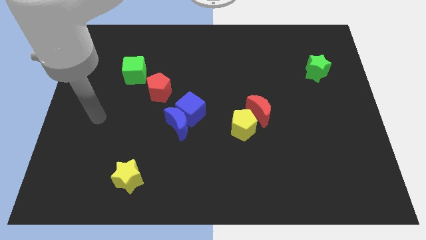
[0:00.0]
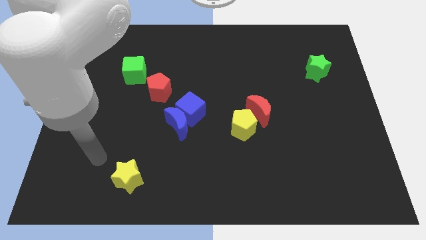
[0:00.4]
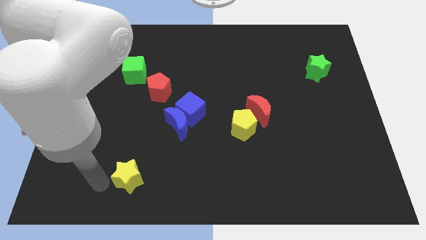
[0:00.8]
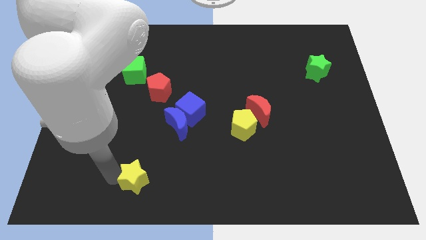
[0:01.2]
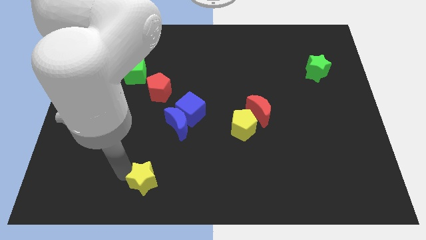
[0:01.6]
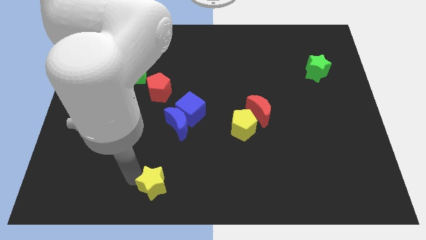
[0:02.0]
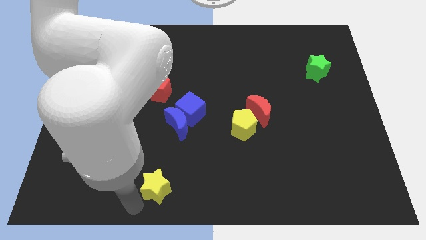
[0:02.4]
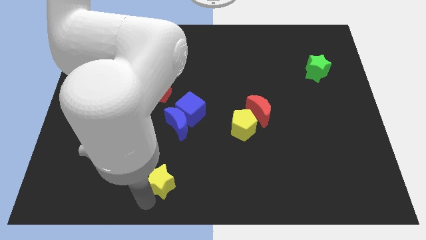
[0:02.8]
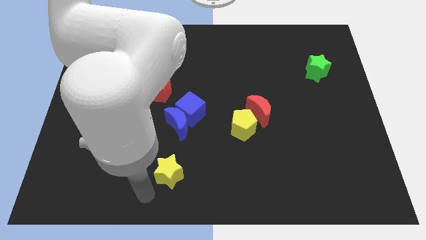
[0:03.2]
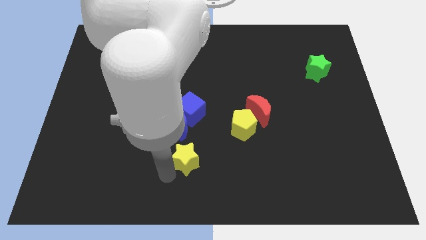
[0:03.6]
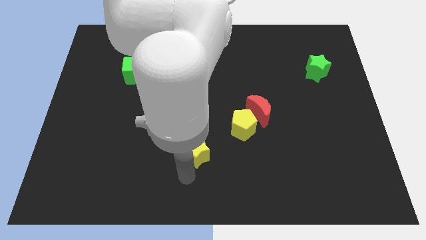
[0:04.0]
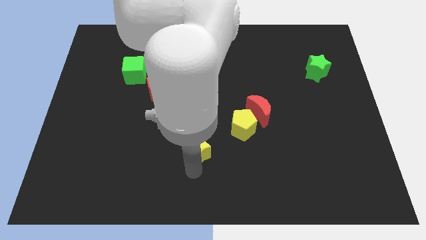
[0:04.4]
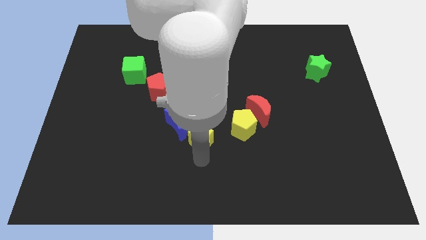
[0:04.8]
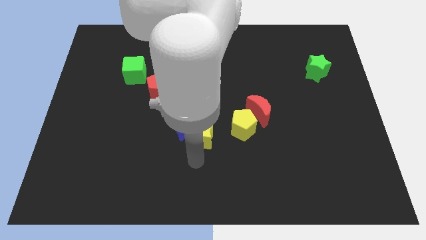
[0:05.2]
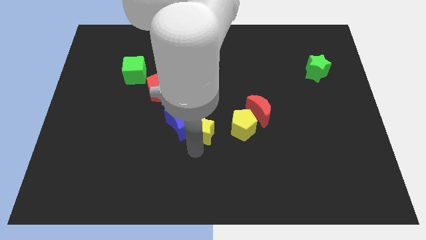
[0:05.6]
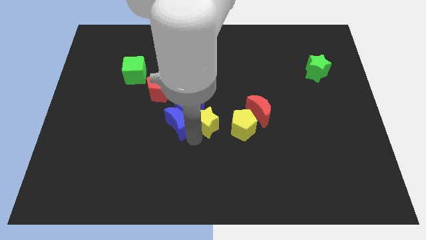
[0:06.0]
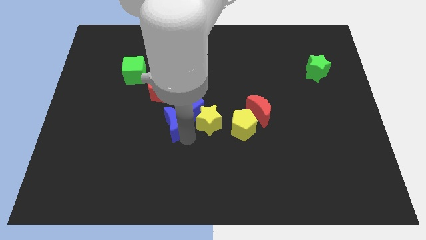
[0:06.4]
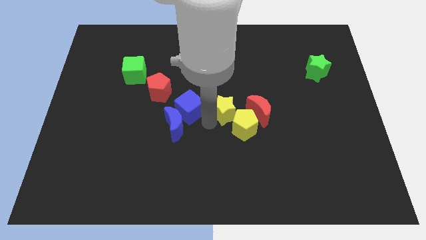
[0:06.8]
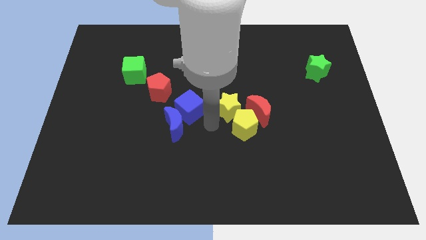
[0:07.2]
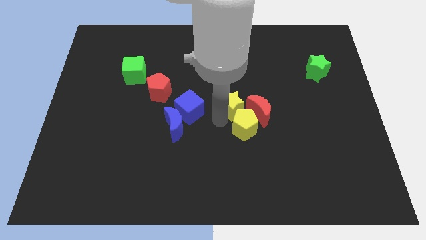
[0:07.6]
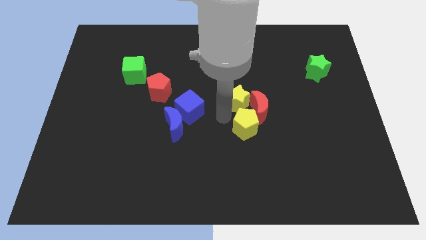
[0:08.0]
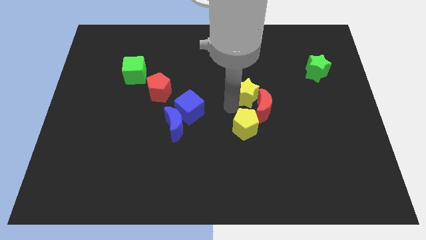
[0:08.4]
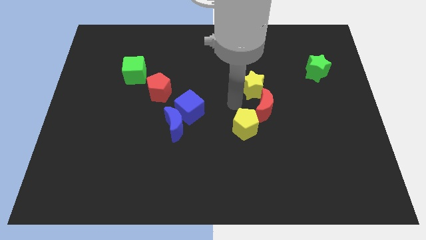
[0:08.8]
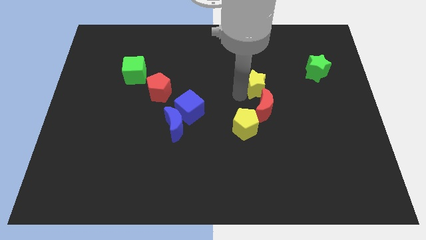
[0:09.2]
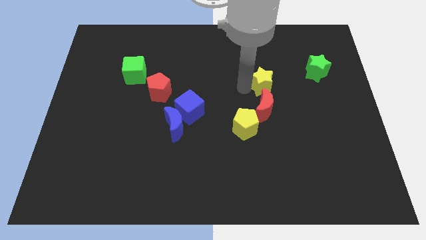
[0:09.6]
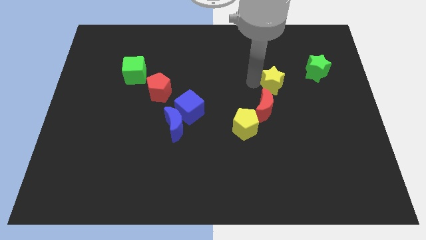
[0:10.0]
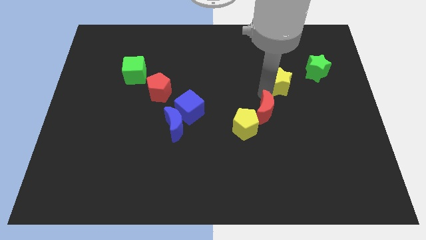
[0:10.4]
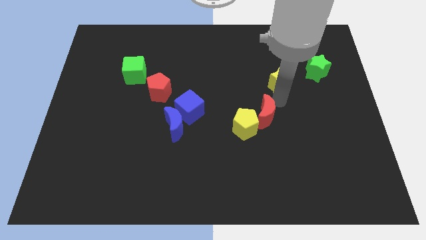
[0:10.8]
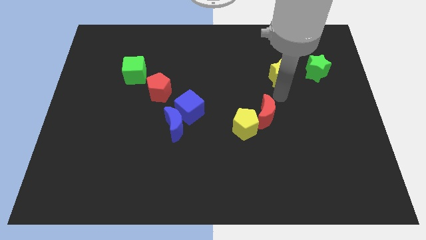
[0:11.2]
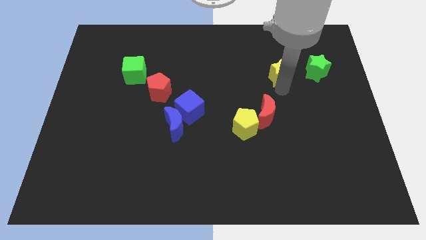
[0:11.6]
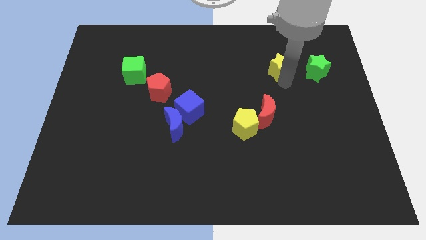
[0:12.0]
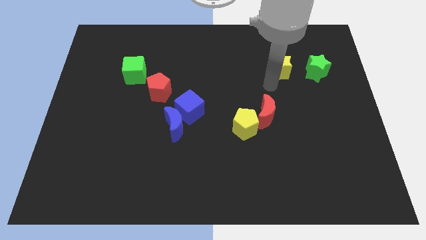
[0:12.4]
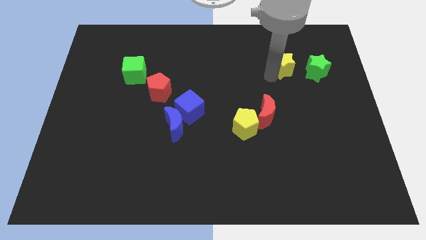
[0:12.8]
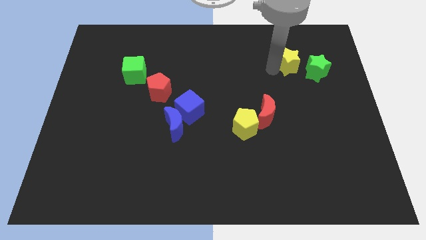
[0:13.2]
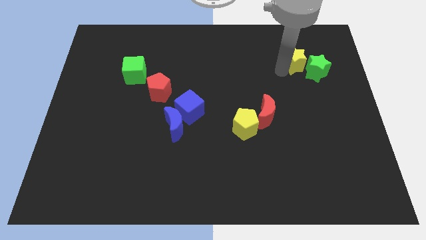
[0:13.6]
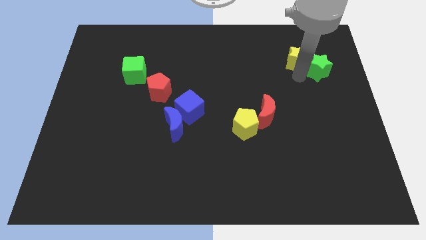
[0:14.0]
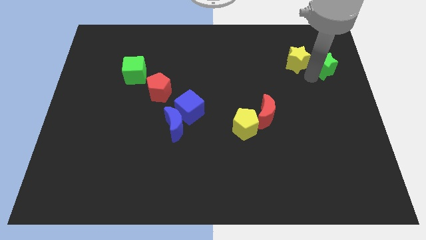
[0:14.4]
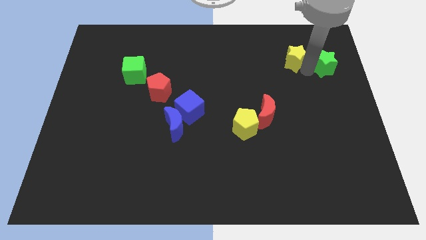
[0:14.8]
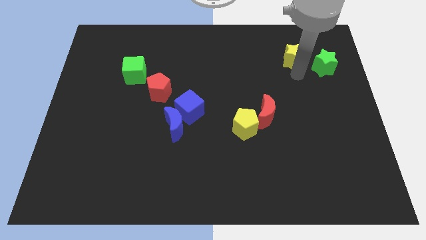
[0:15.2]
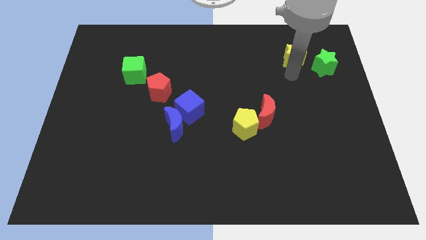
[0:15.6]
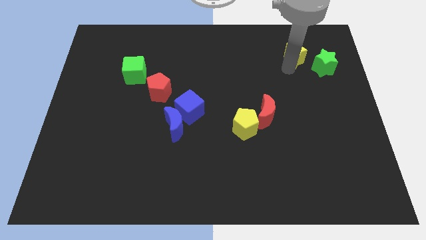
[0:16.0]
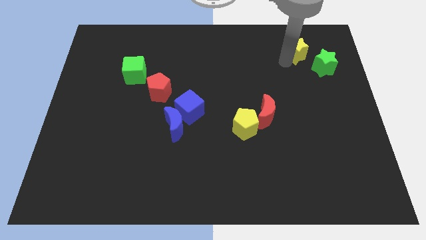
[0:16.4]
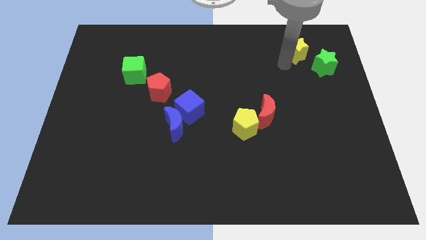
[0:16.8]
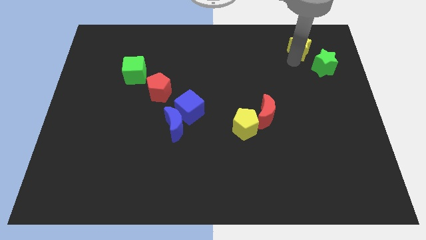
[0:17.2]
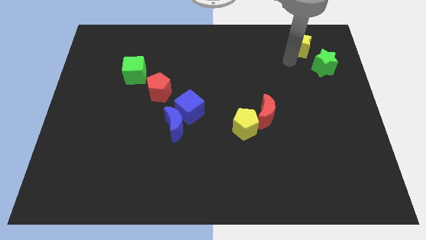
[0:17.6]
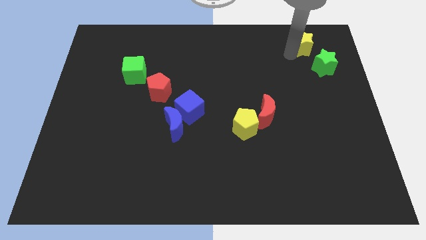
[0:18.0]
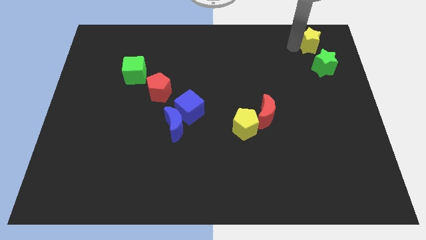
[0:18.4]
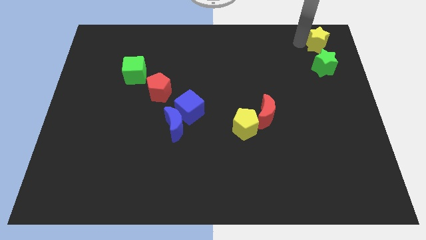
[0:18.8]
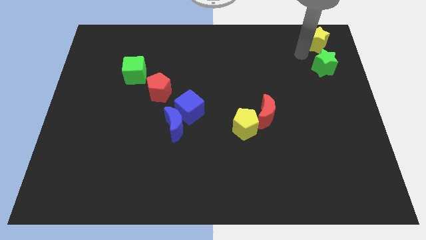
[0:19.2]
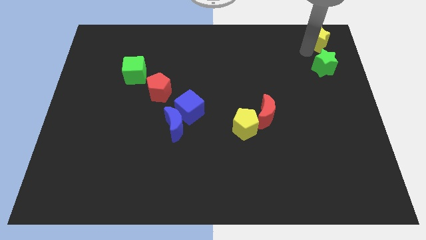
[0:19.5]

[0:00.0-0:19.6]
put the yellow star to the top right of the board

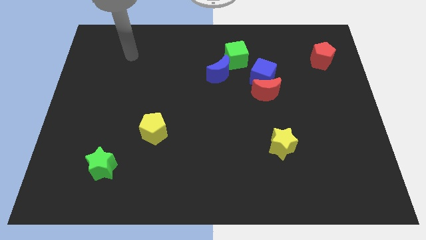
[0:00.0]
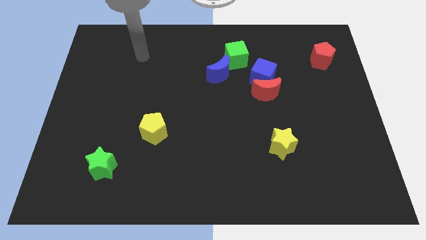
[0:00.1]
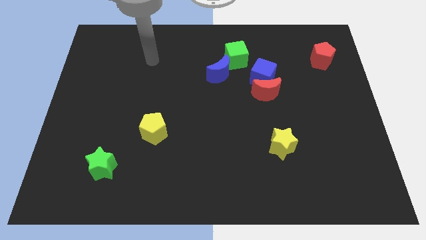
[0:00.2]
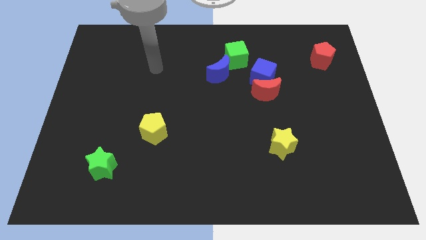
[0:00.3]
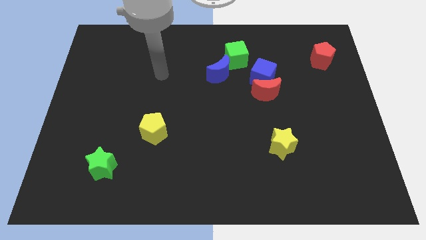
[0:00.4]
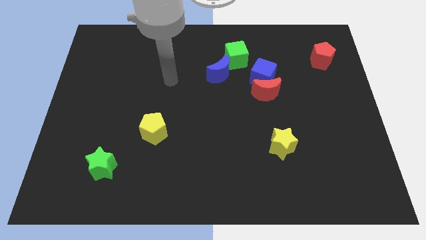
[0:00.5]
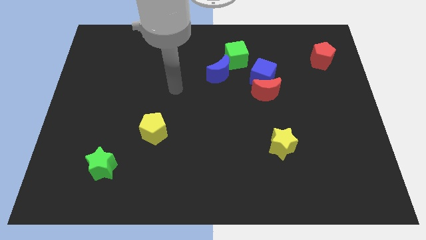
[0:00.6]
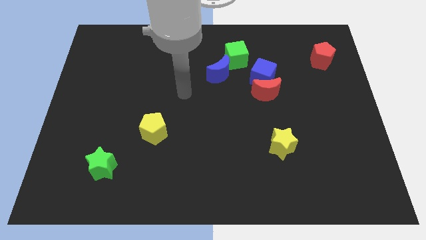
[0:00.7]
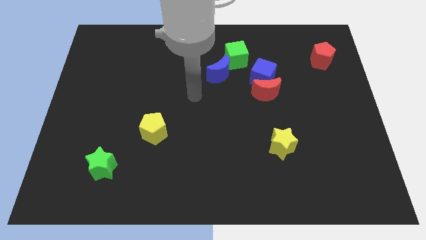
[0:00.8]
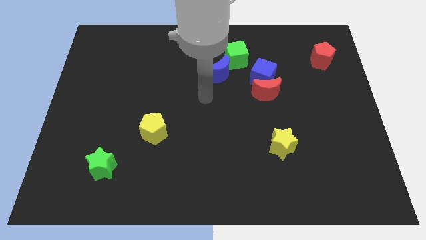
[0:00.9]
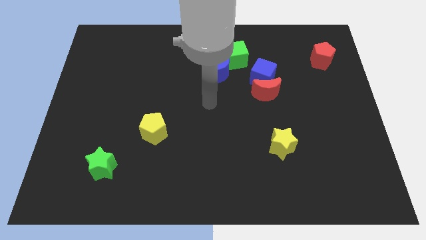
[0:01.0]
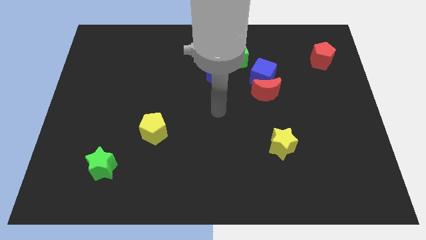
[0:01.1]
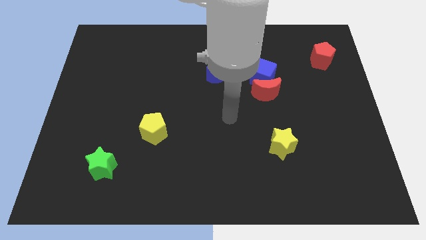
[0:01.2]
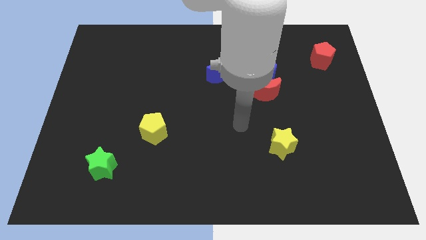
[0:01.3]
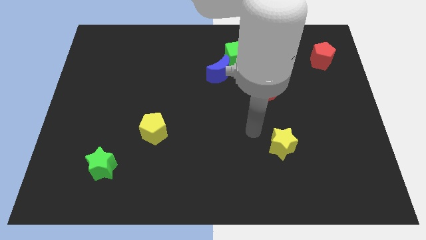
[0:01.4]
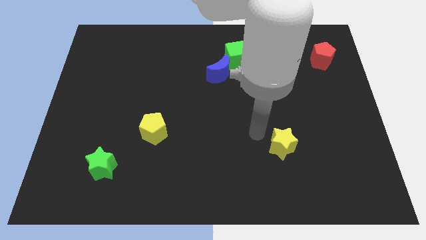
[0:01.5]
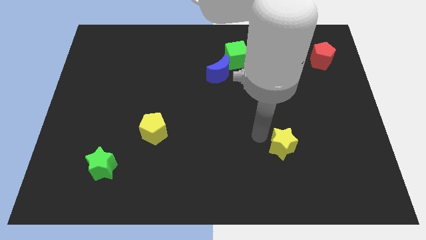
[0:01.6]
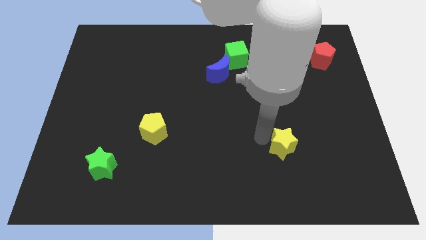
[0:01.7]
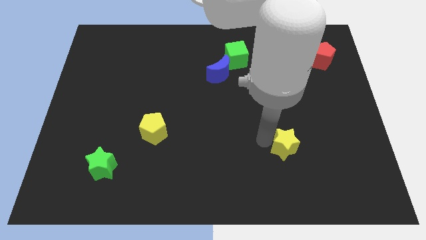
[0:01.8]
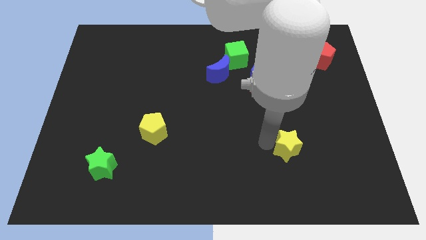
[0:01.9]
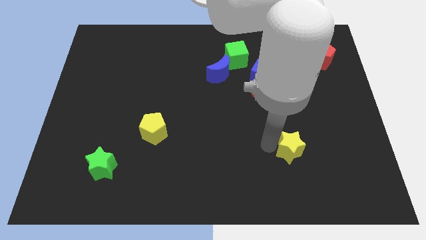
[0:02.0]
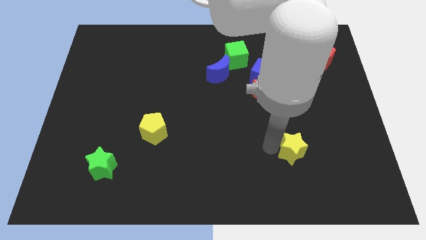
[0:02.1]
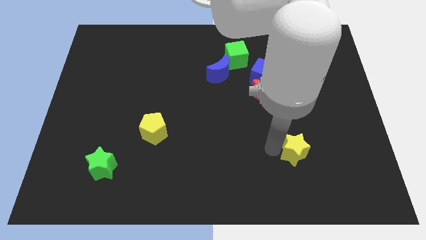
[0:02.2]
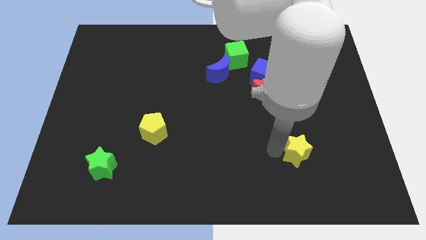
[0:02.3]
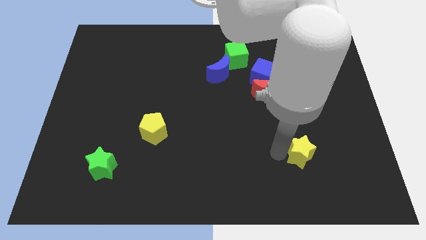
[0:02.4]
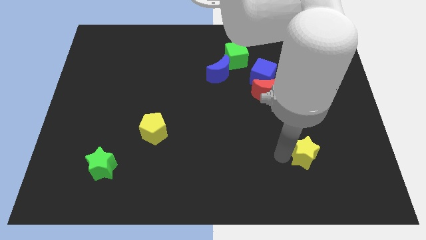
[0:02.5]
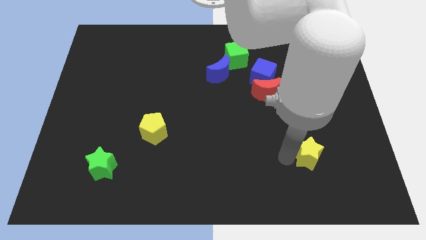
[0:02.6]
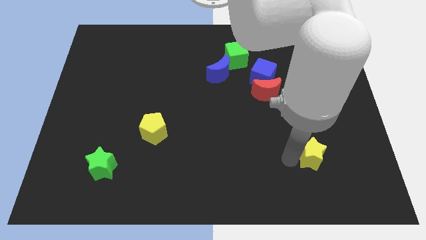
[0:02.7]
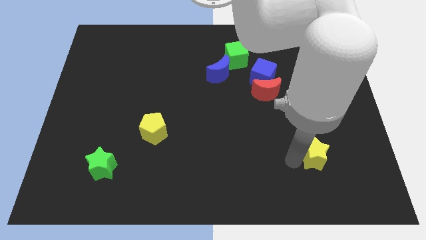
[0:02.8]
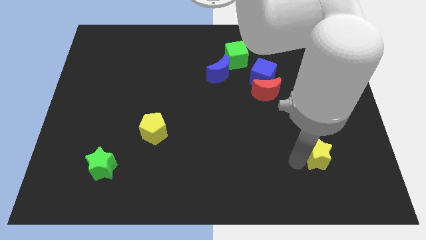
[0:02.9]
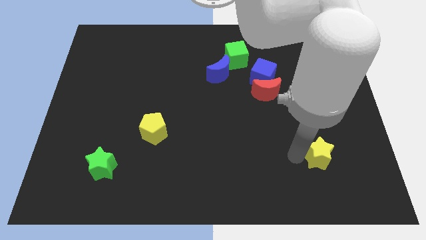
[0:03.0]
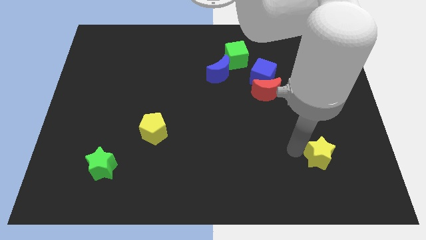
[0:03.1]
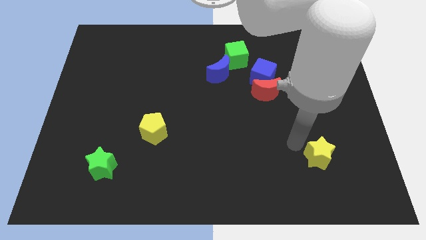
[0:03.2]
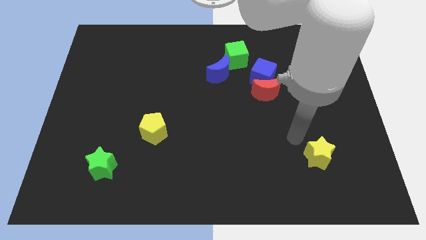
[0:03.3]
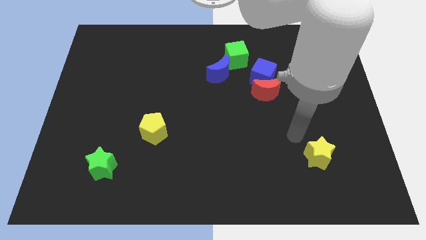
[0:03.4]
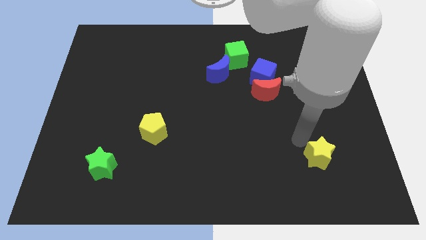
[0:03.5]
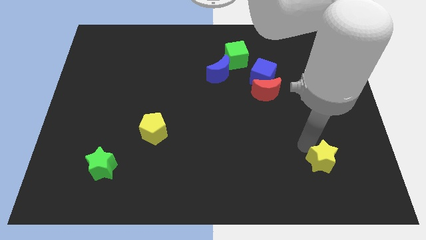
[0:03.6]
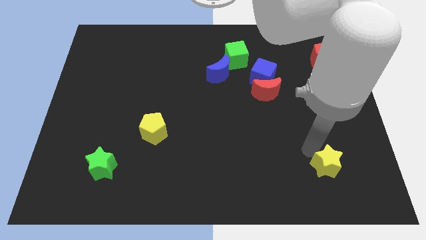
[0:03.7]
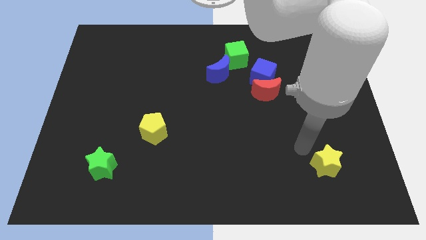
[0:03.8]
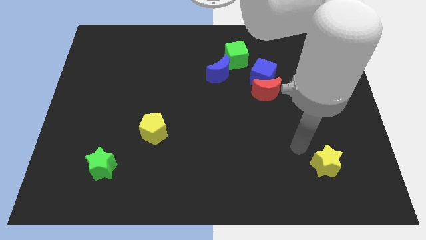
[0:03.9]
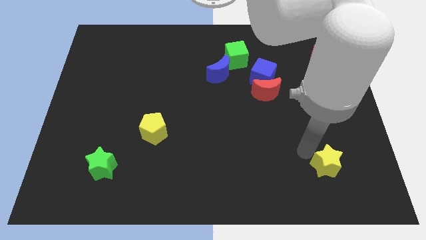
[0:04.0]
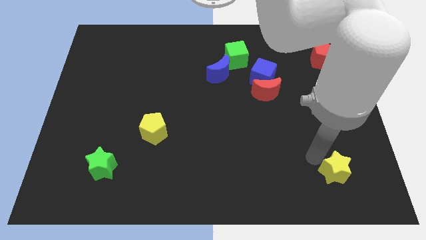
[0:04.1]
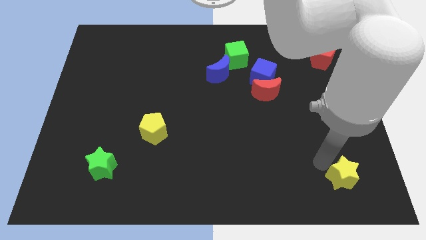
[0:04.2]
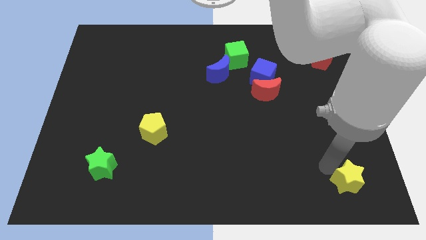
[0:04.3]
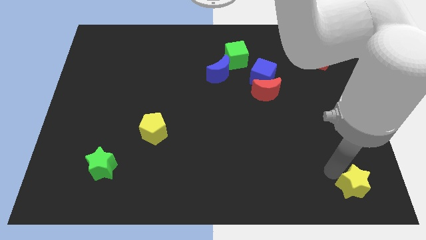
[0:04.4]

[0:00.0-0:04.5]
slide the yellow star to the bottom right
